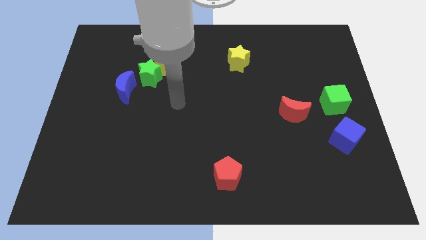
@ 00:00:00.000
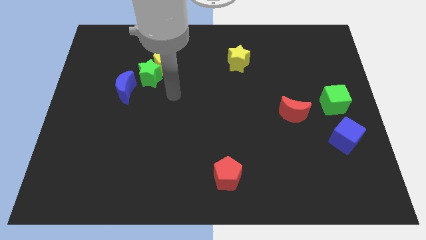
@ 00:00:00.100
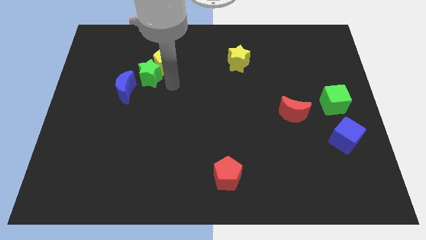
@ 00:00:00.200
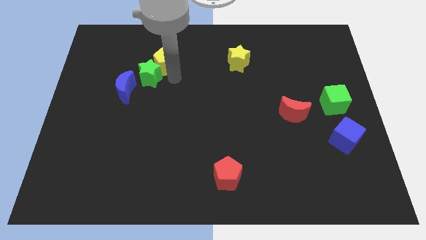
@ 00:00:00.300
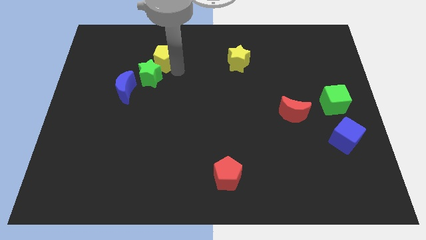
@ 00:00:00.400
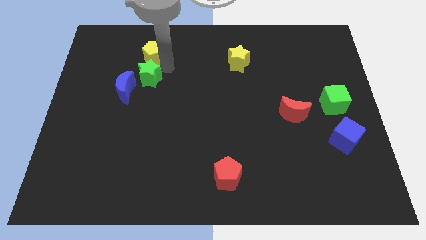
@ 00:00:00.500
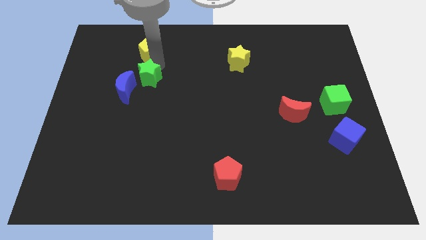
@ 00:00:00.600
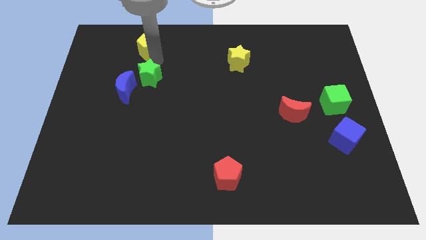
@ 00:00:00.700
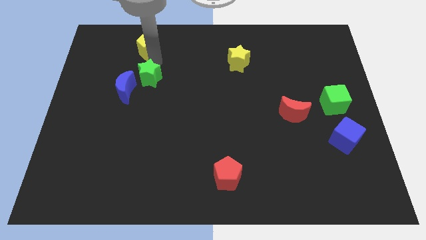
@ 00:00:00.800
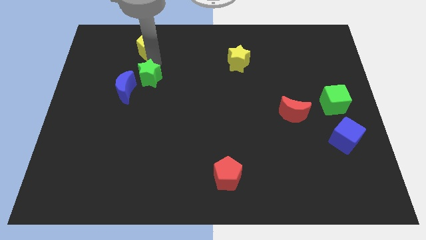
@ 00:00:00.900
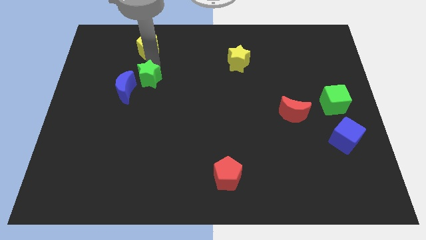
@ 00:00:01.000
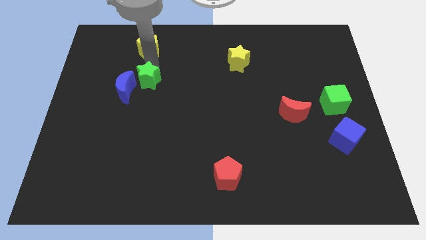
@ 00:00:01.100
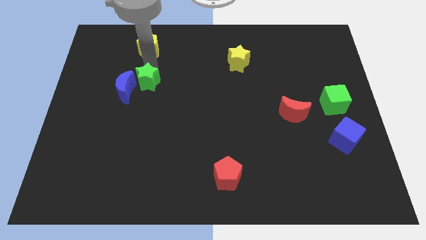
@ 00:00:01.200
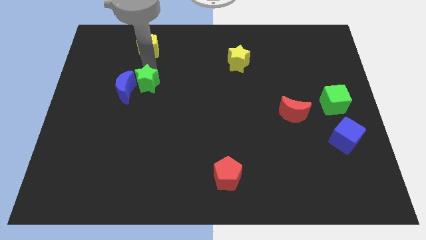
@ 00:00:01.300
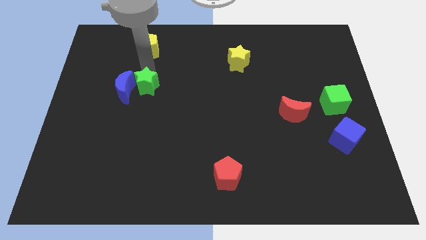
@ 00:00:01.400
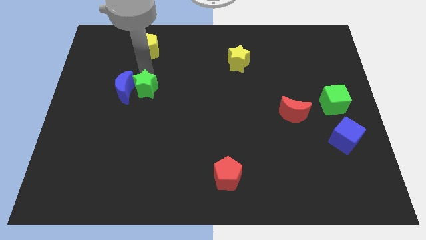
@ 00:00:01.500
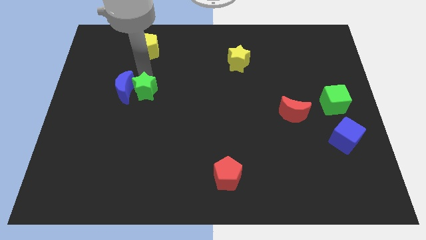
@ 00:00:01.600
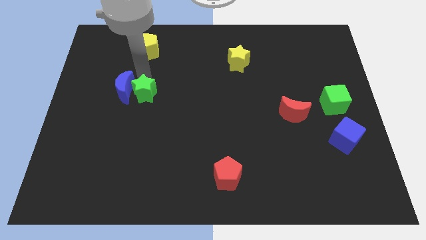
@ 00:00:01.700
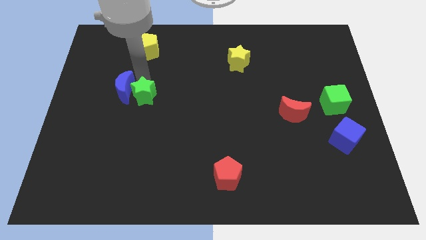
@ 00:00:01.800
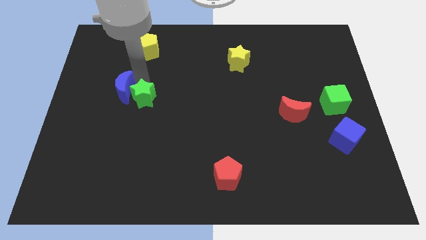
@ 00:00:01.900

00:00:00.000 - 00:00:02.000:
move the green star downwards slightly

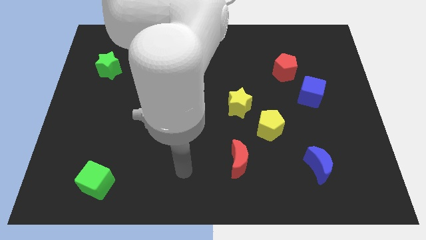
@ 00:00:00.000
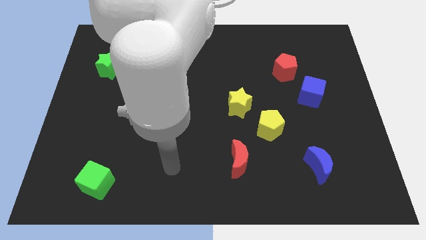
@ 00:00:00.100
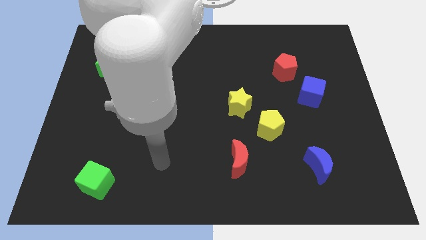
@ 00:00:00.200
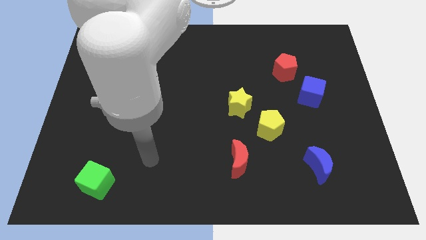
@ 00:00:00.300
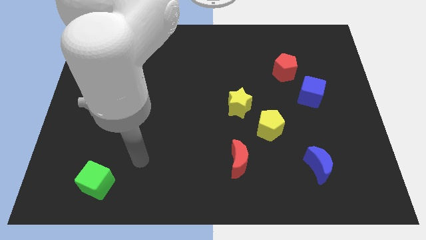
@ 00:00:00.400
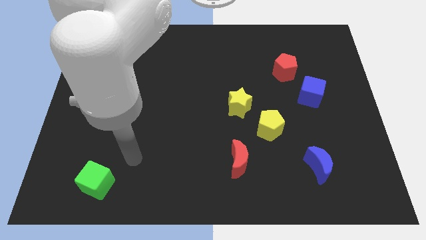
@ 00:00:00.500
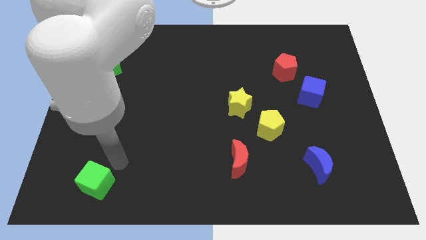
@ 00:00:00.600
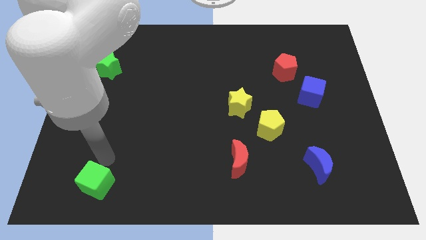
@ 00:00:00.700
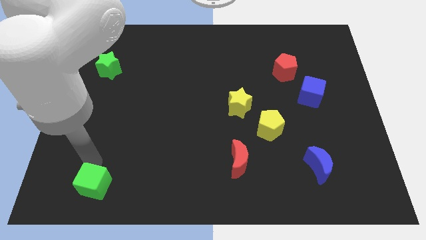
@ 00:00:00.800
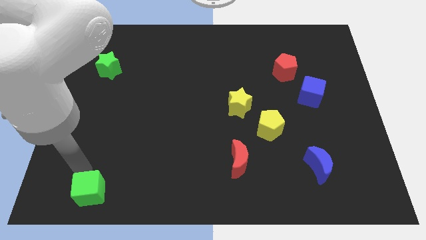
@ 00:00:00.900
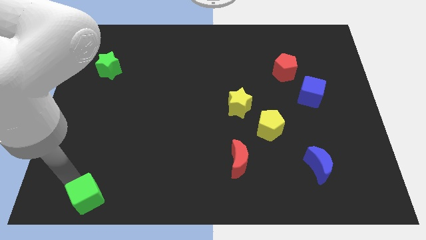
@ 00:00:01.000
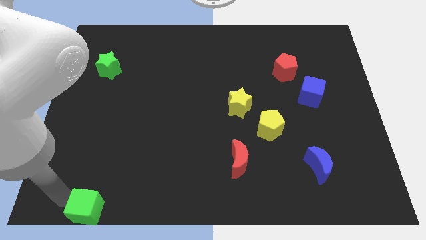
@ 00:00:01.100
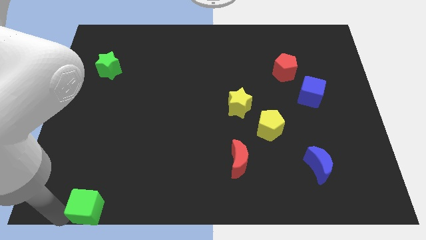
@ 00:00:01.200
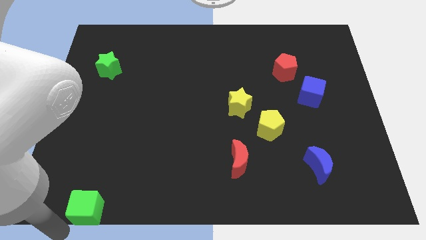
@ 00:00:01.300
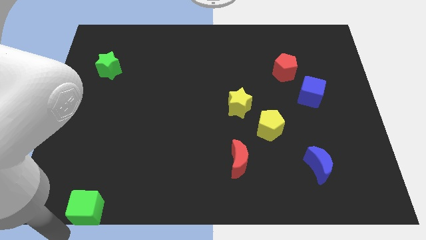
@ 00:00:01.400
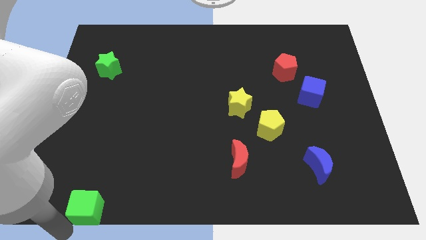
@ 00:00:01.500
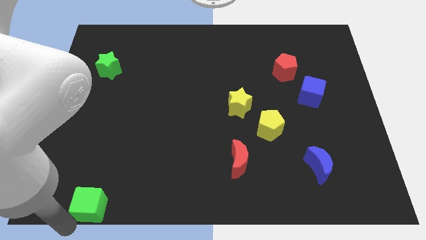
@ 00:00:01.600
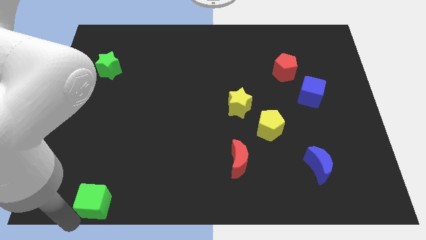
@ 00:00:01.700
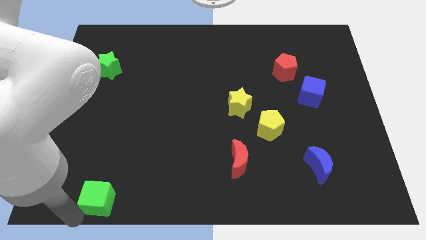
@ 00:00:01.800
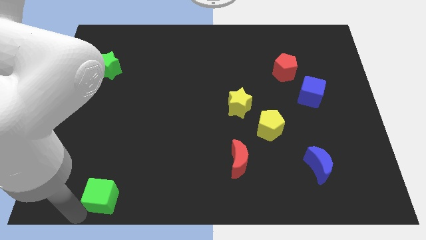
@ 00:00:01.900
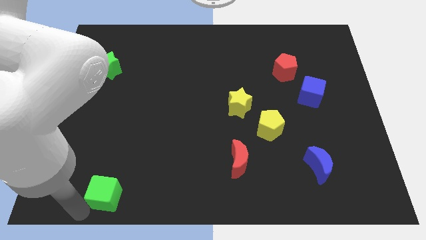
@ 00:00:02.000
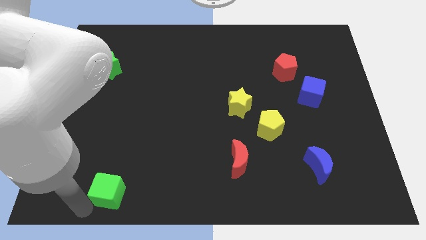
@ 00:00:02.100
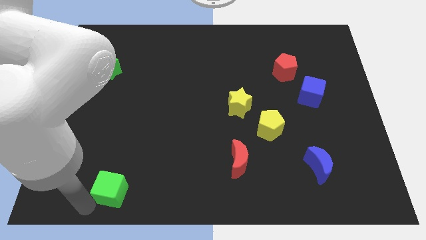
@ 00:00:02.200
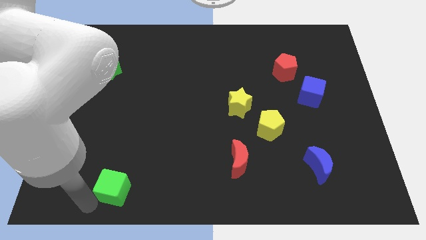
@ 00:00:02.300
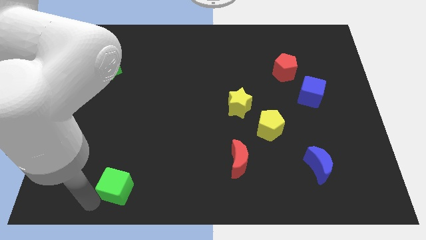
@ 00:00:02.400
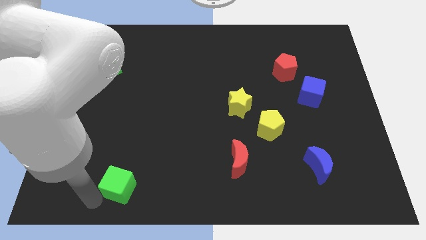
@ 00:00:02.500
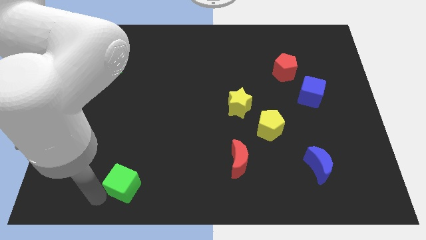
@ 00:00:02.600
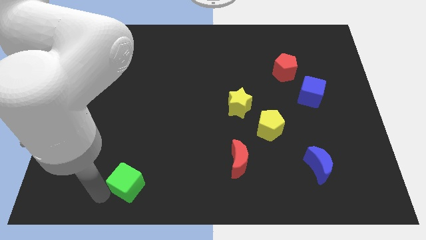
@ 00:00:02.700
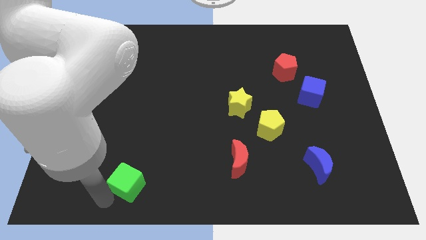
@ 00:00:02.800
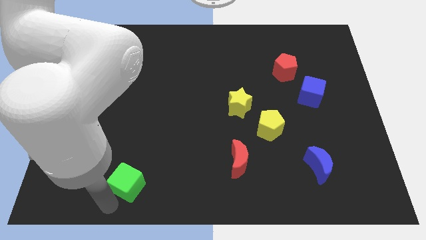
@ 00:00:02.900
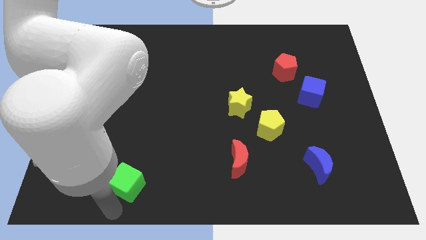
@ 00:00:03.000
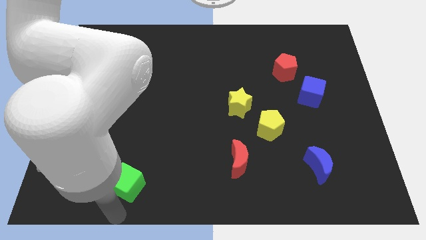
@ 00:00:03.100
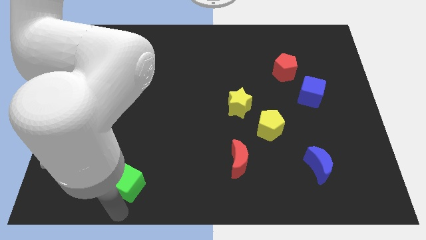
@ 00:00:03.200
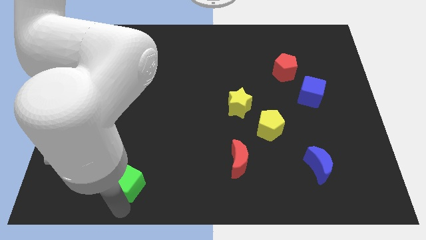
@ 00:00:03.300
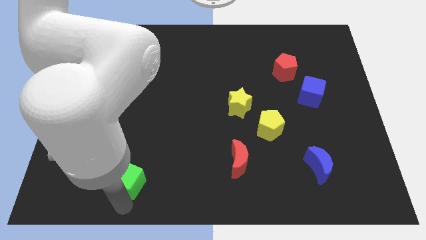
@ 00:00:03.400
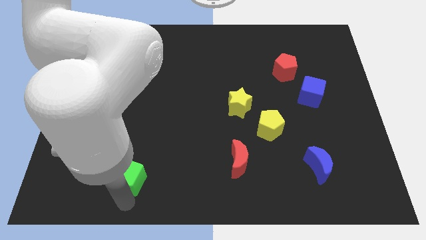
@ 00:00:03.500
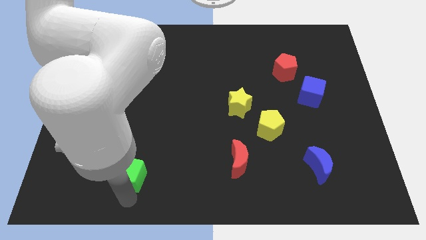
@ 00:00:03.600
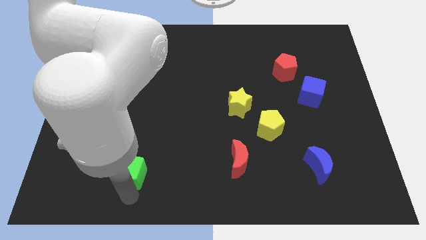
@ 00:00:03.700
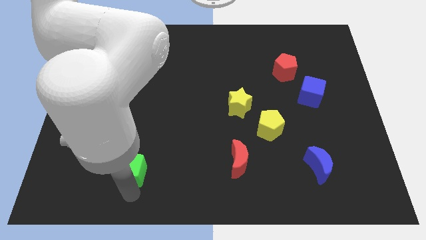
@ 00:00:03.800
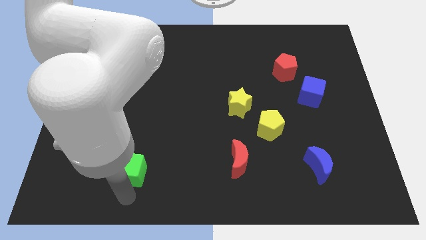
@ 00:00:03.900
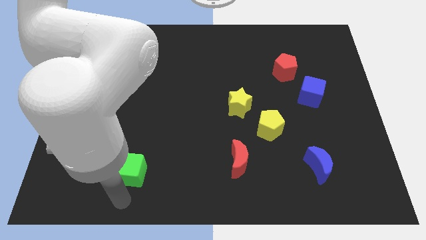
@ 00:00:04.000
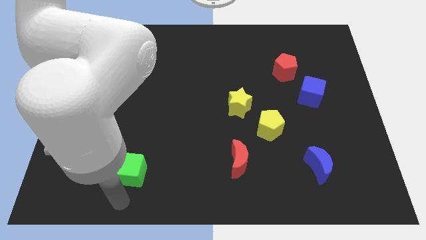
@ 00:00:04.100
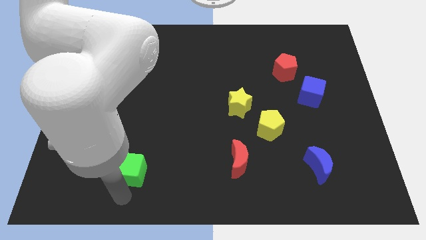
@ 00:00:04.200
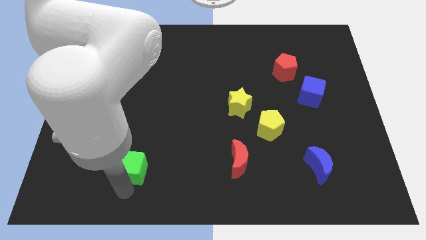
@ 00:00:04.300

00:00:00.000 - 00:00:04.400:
slightly push the green cube up and then to the right

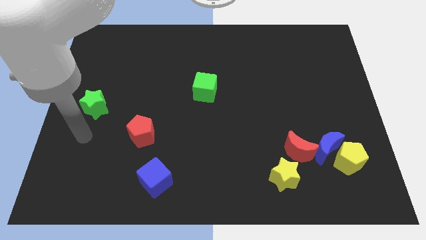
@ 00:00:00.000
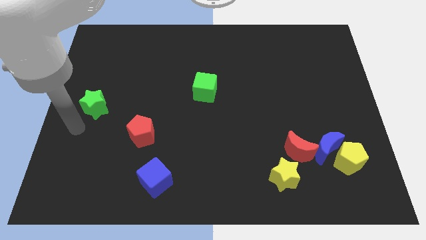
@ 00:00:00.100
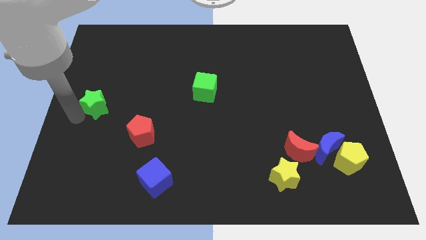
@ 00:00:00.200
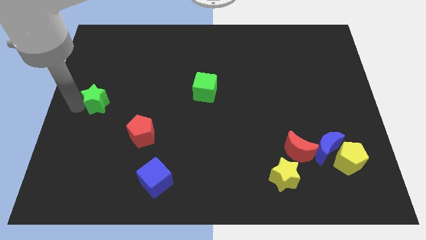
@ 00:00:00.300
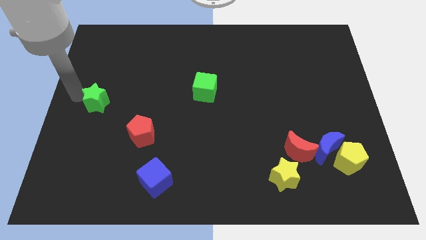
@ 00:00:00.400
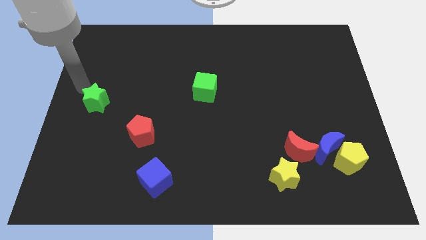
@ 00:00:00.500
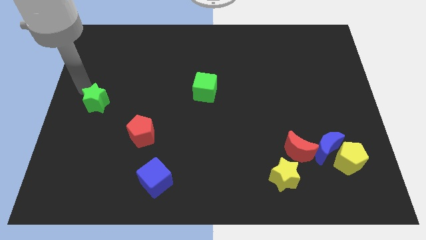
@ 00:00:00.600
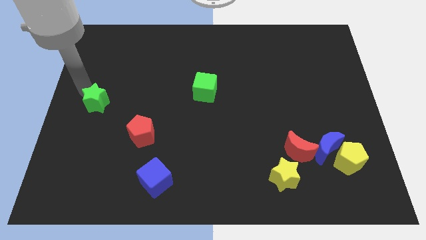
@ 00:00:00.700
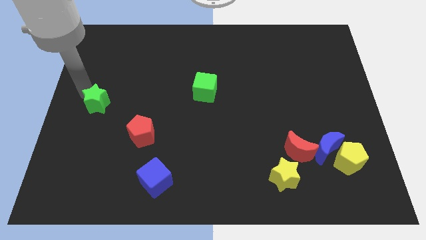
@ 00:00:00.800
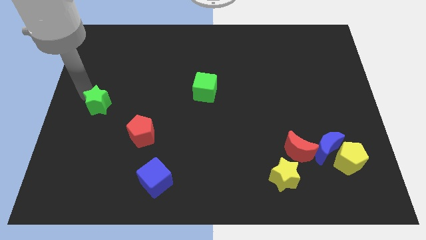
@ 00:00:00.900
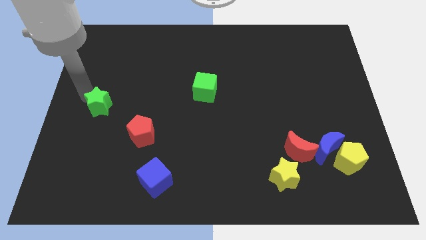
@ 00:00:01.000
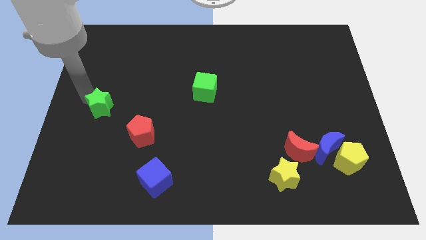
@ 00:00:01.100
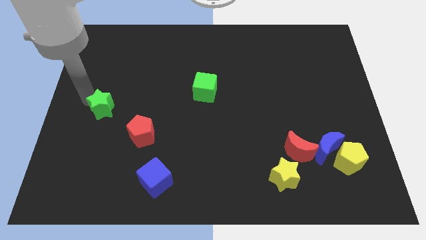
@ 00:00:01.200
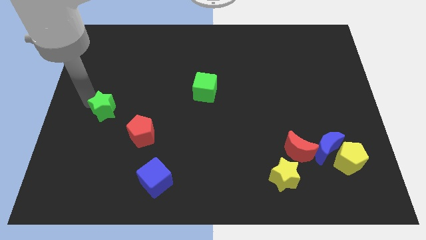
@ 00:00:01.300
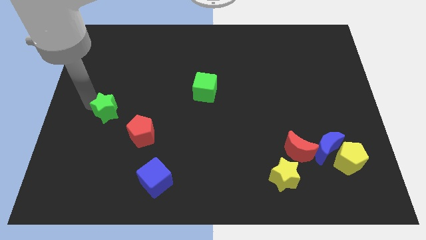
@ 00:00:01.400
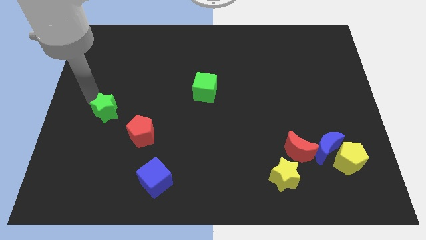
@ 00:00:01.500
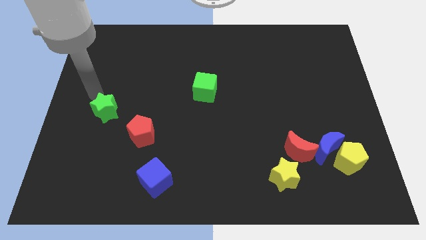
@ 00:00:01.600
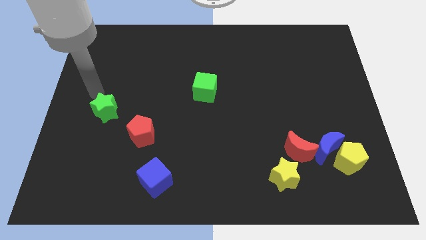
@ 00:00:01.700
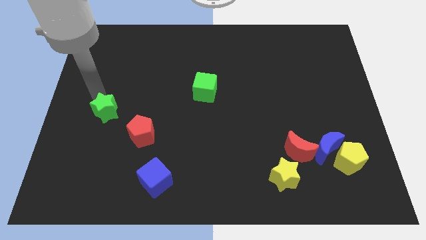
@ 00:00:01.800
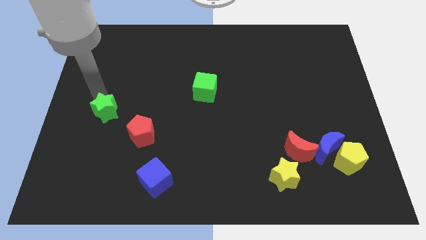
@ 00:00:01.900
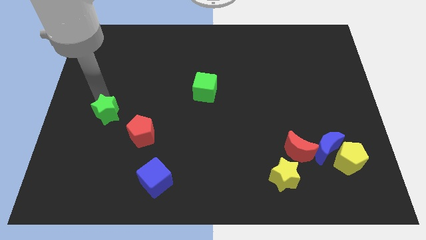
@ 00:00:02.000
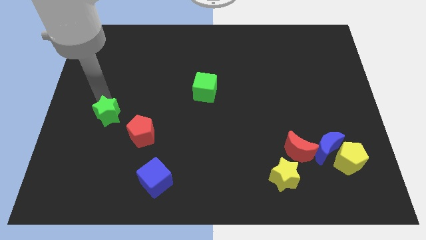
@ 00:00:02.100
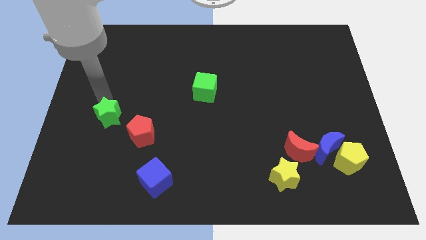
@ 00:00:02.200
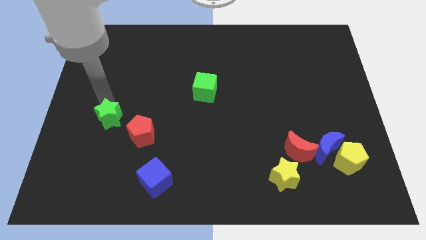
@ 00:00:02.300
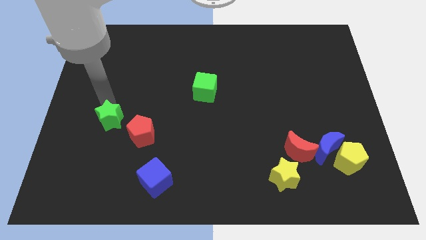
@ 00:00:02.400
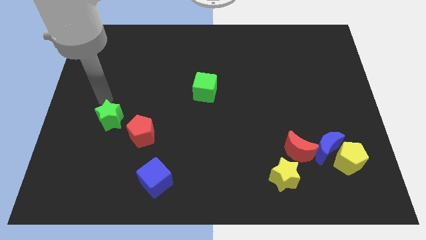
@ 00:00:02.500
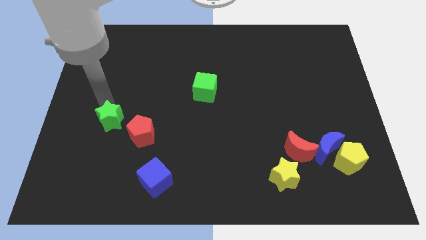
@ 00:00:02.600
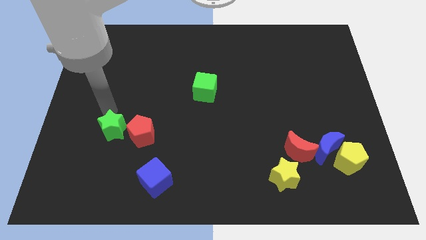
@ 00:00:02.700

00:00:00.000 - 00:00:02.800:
slightly slide the green star diagonally downwards and right
